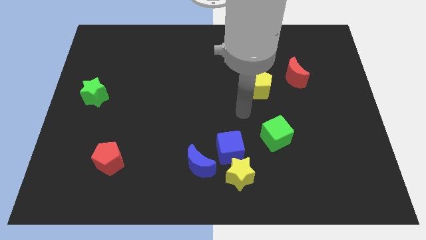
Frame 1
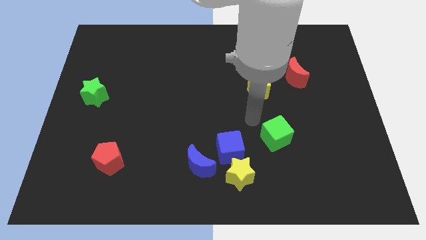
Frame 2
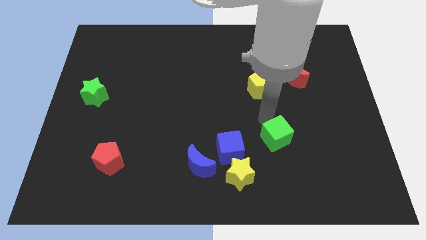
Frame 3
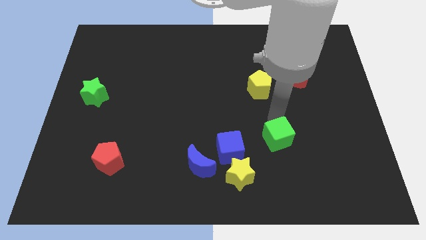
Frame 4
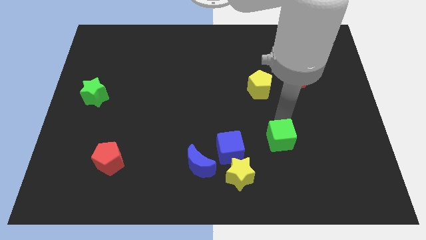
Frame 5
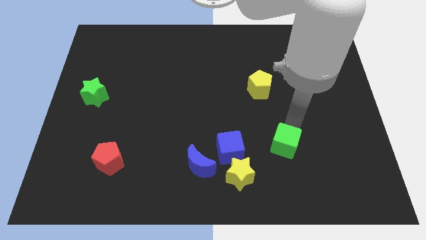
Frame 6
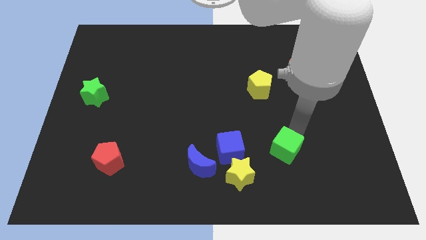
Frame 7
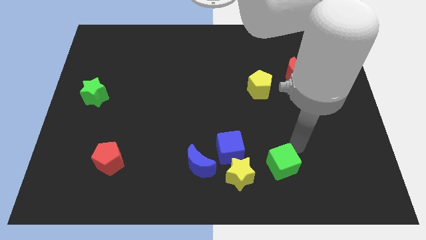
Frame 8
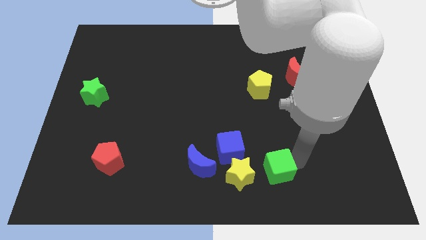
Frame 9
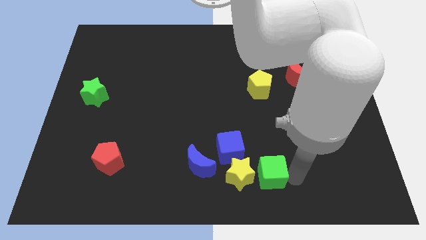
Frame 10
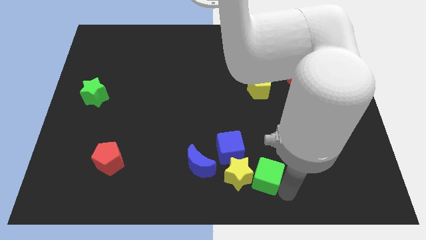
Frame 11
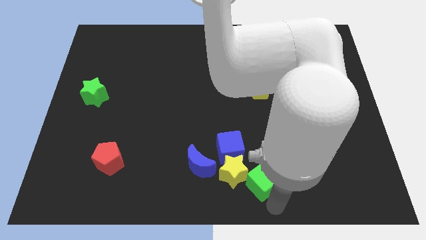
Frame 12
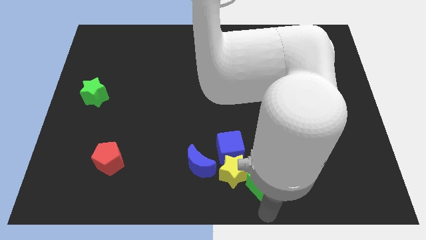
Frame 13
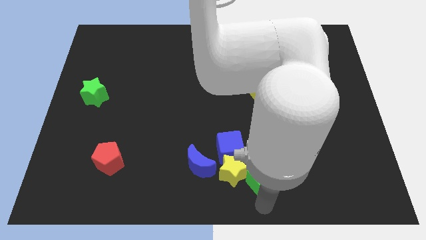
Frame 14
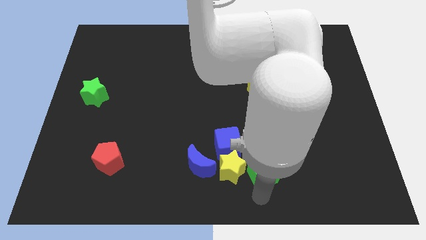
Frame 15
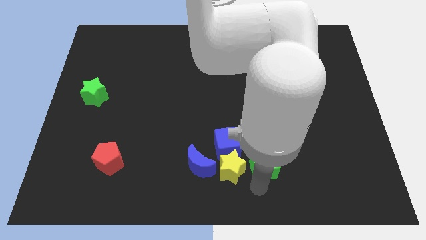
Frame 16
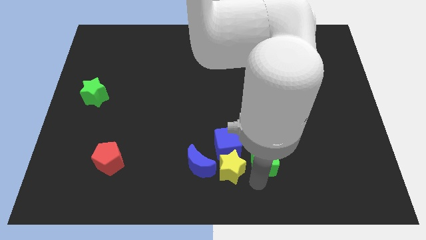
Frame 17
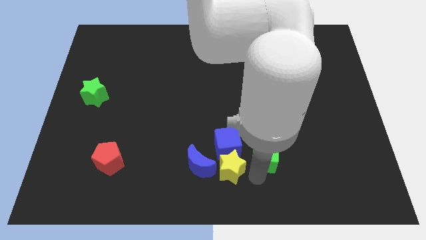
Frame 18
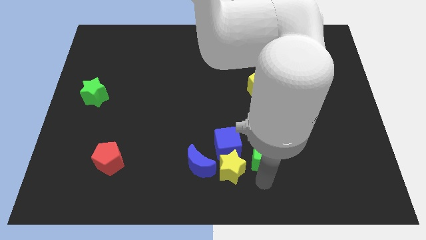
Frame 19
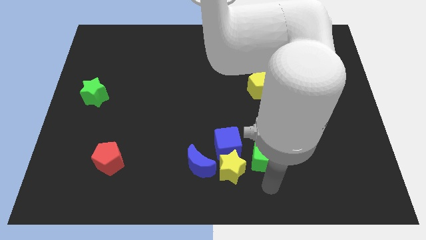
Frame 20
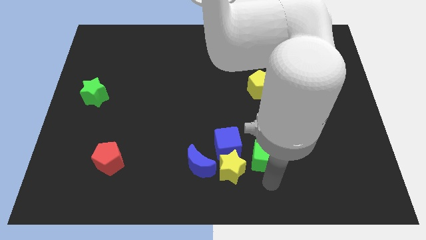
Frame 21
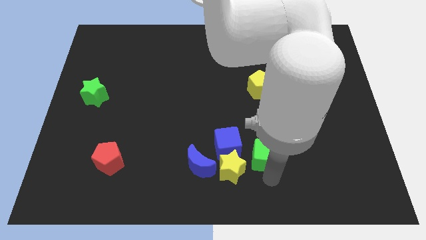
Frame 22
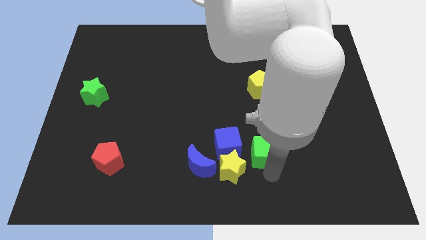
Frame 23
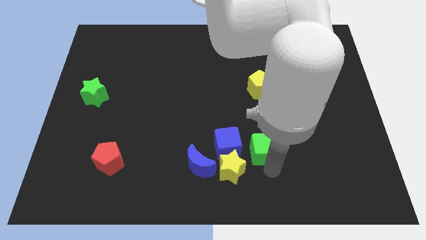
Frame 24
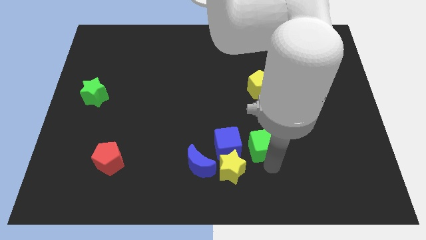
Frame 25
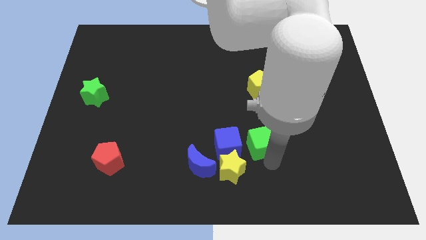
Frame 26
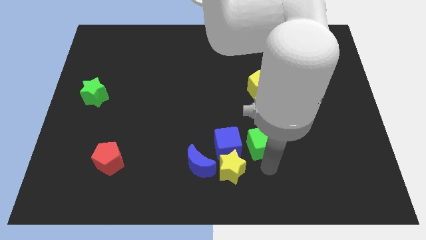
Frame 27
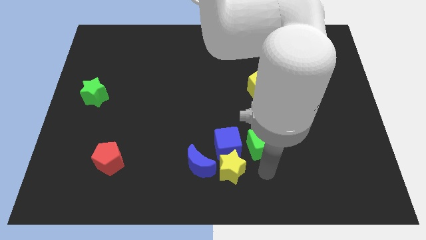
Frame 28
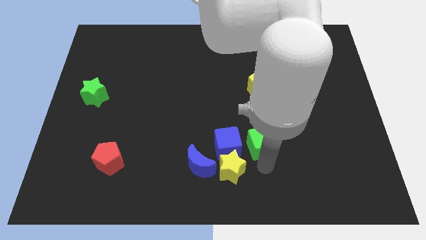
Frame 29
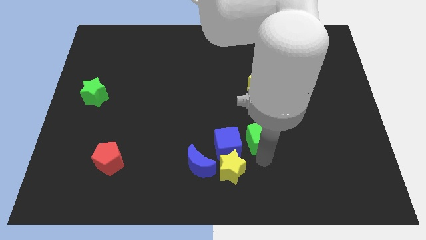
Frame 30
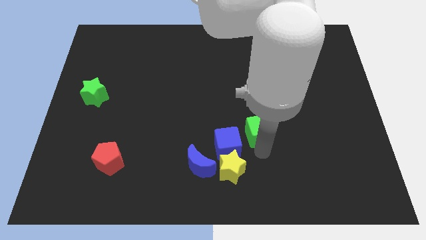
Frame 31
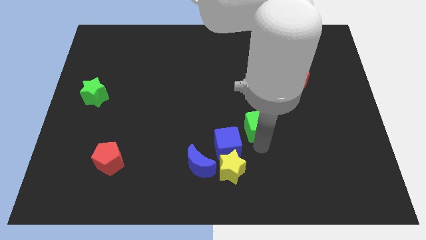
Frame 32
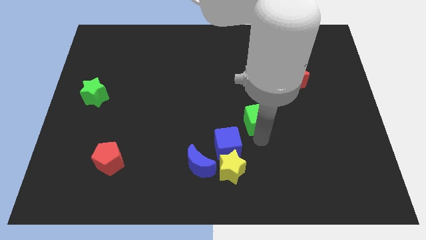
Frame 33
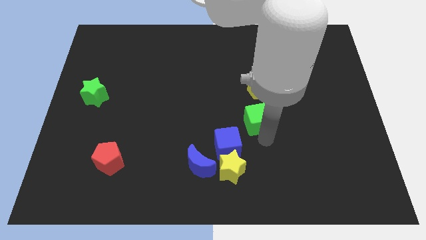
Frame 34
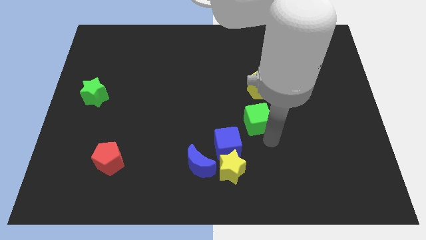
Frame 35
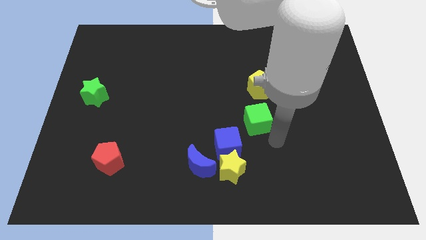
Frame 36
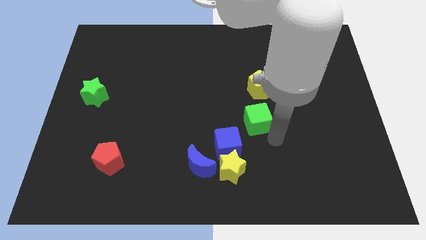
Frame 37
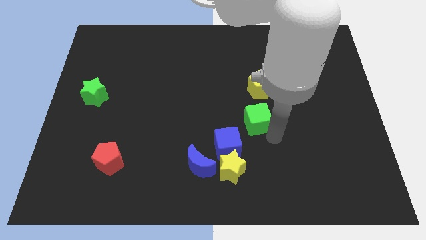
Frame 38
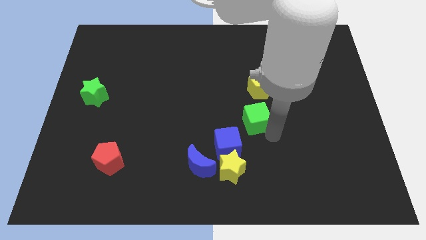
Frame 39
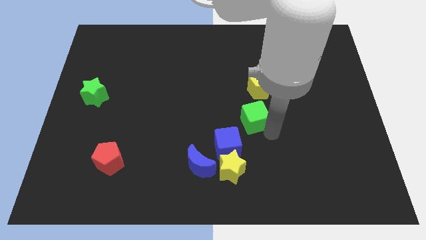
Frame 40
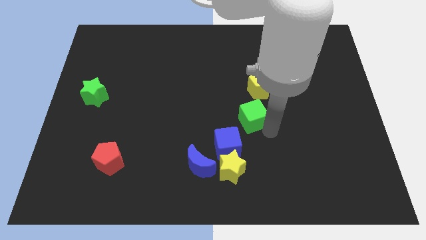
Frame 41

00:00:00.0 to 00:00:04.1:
slightly push the green cube diagonally up and left

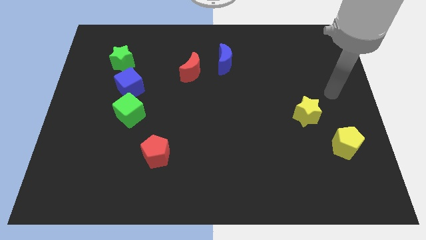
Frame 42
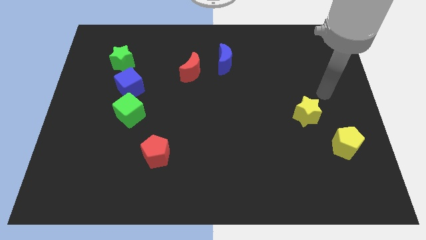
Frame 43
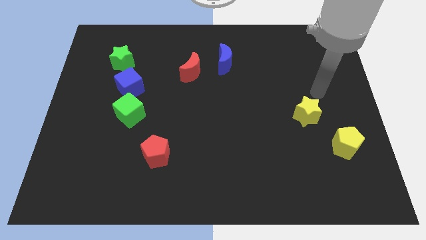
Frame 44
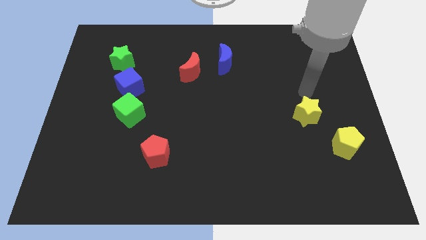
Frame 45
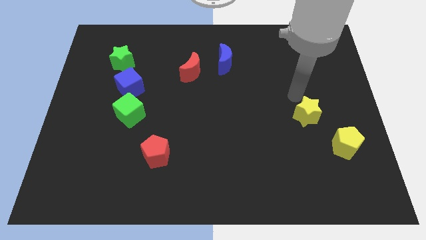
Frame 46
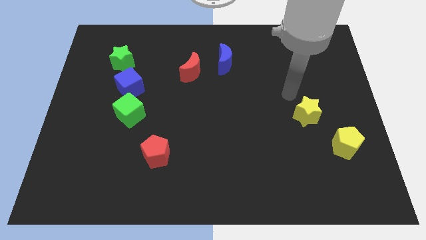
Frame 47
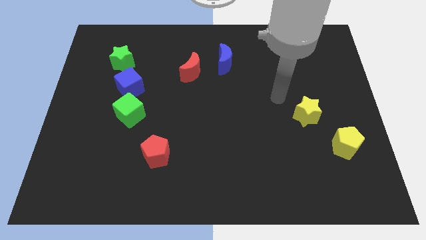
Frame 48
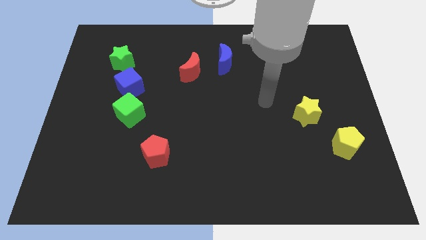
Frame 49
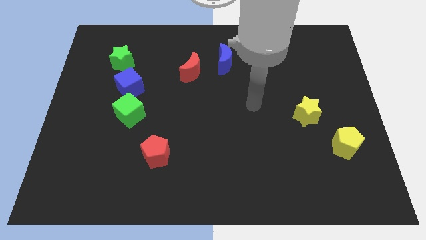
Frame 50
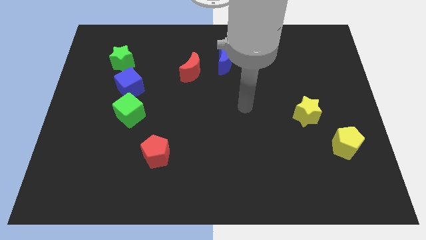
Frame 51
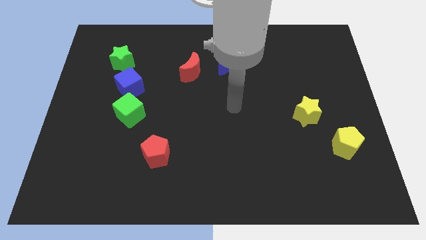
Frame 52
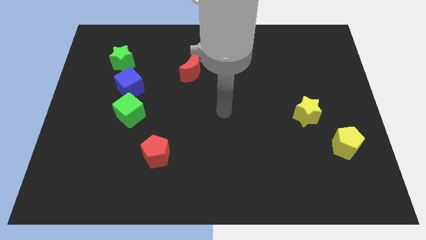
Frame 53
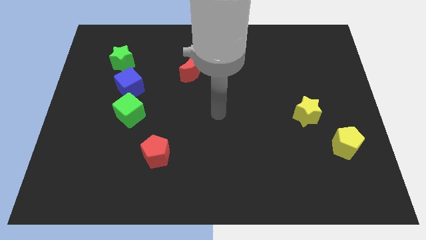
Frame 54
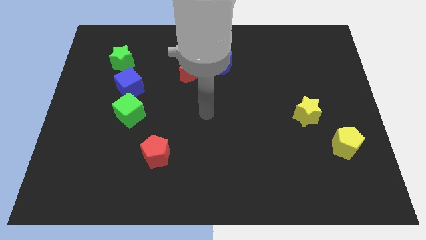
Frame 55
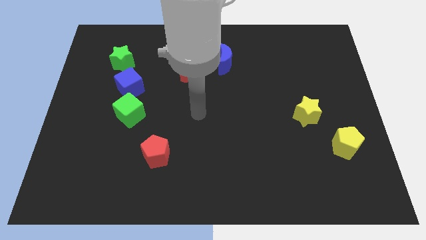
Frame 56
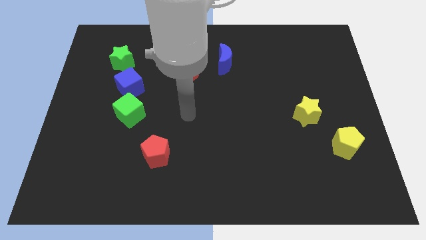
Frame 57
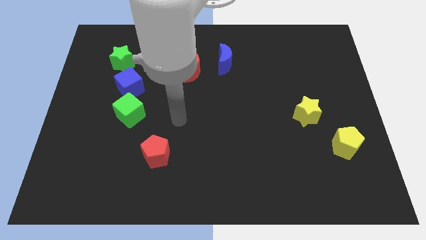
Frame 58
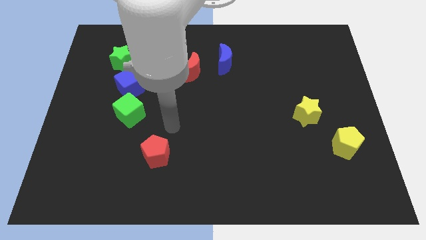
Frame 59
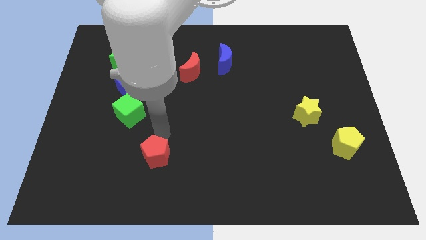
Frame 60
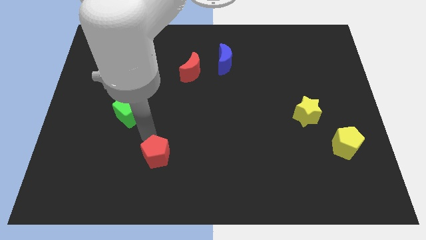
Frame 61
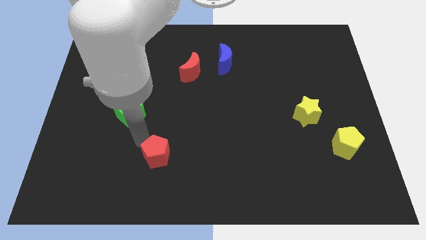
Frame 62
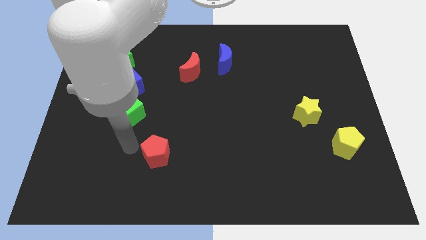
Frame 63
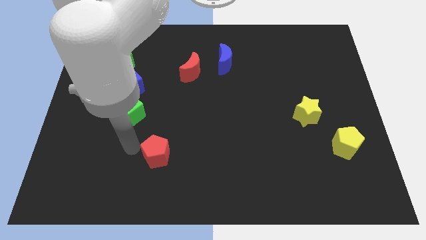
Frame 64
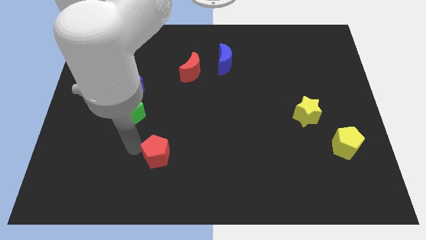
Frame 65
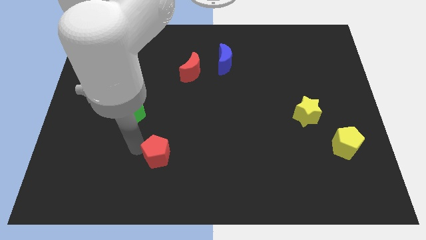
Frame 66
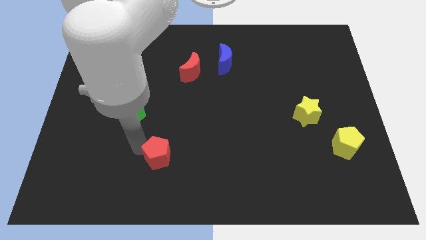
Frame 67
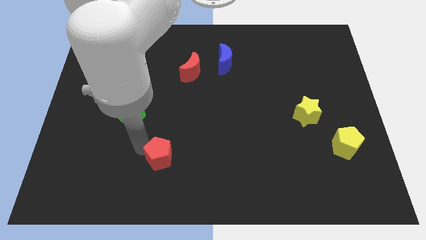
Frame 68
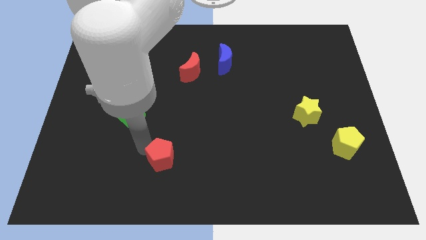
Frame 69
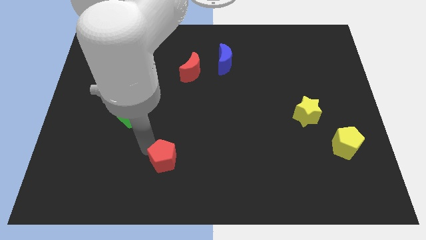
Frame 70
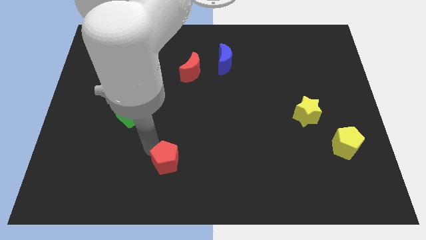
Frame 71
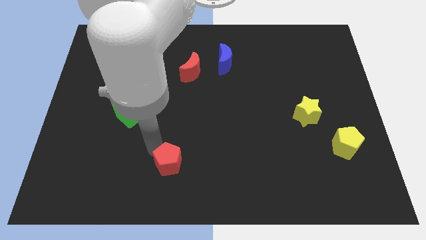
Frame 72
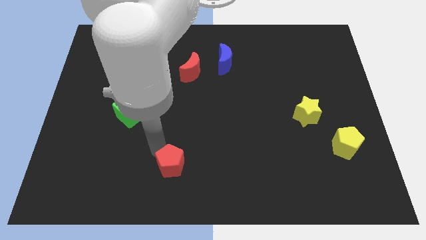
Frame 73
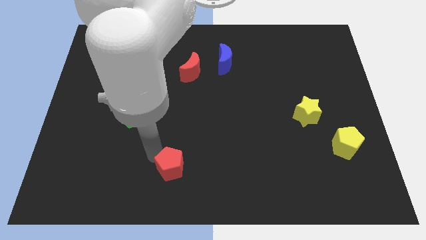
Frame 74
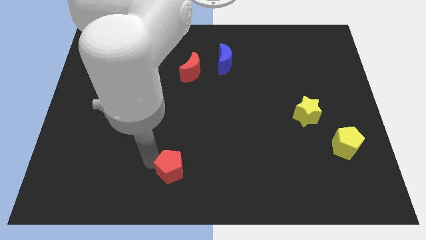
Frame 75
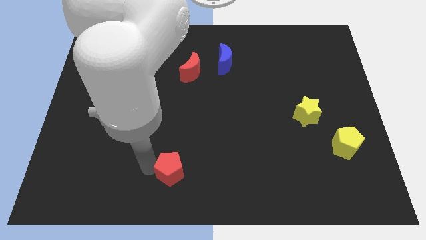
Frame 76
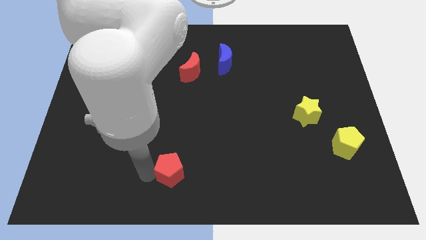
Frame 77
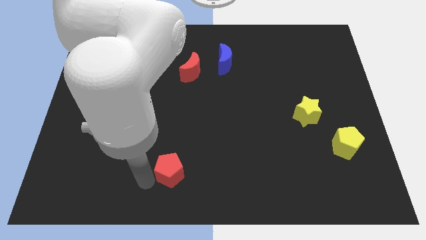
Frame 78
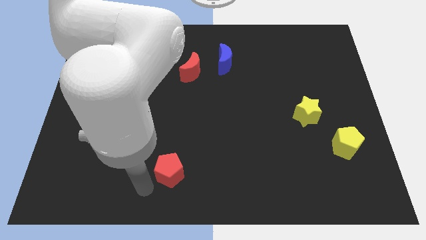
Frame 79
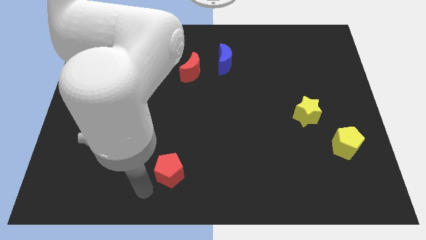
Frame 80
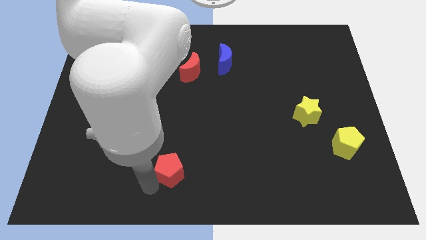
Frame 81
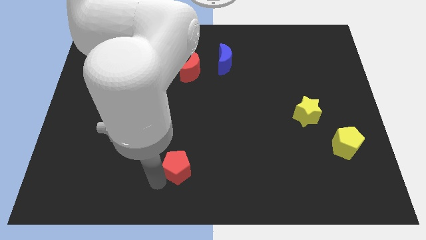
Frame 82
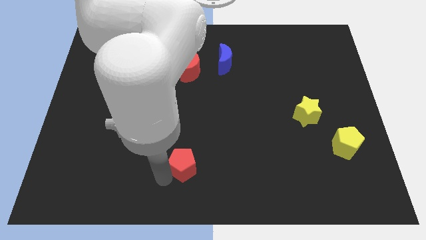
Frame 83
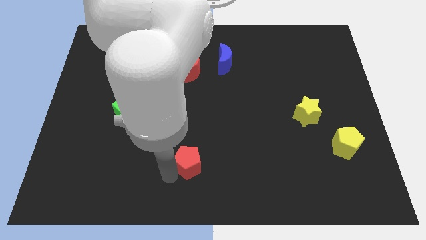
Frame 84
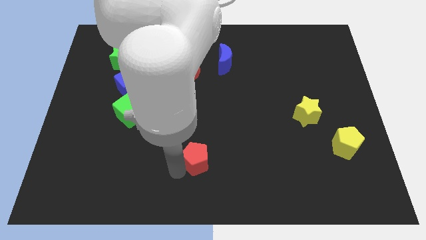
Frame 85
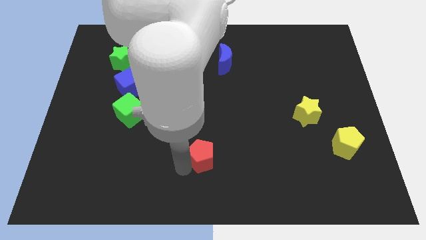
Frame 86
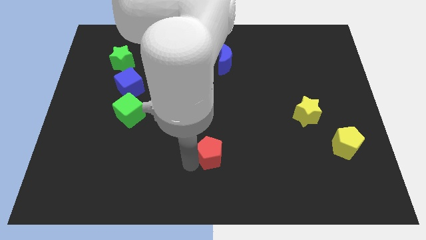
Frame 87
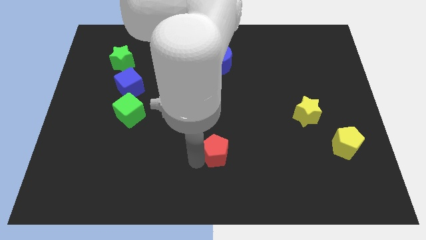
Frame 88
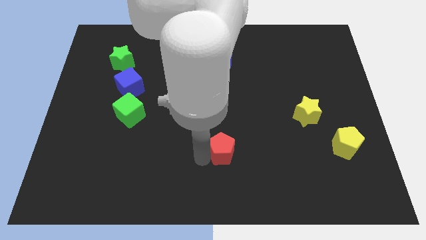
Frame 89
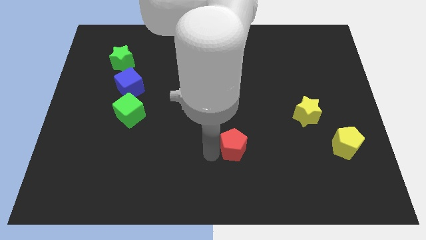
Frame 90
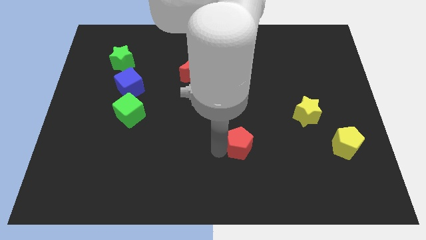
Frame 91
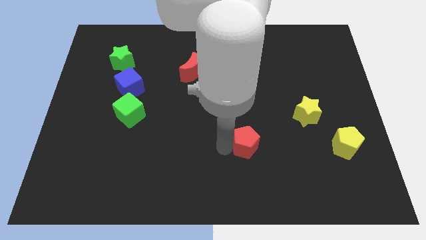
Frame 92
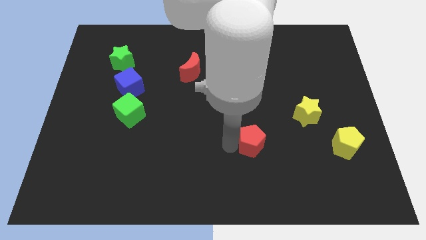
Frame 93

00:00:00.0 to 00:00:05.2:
push the red pentagon right
